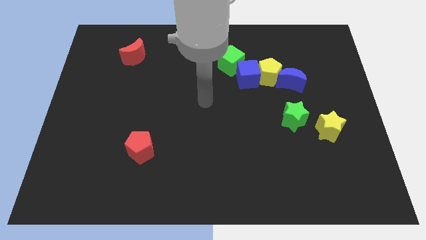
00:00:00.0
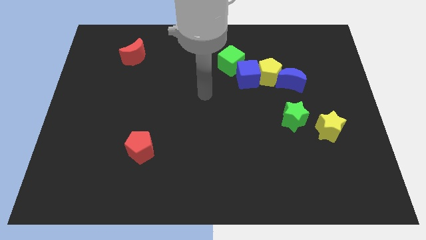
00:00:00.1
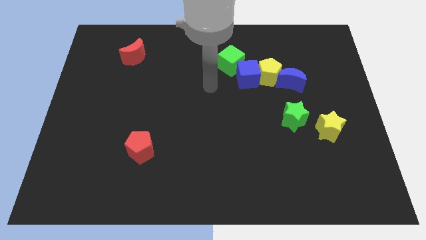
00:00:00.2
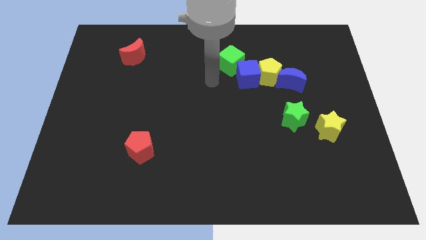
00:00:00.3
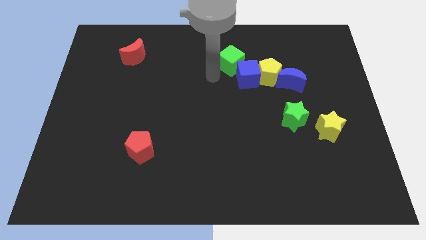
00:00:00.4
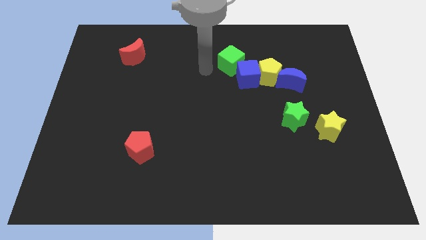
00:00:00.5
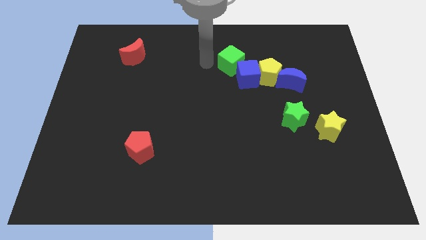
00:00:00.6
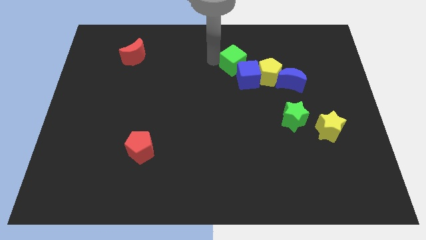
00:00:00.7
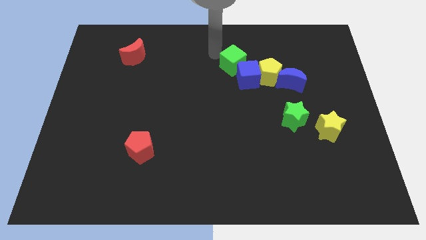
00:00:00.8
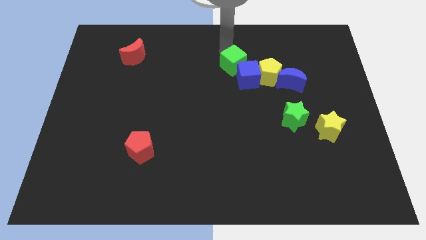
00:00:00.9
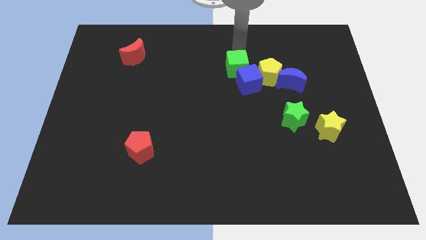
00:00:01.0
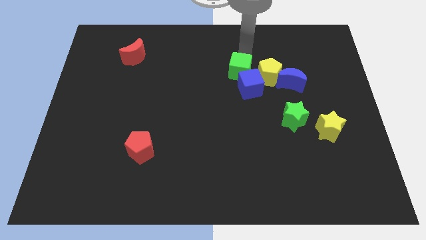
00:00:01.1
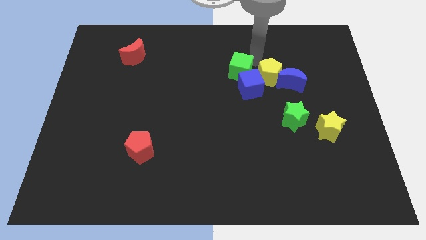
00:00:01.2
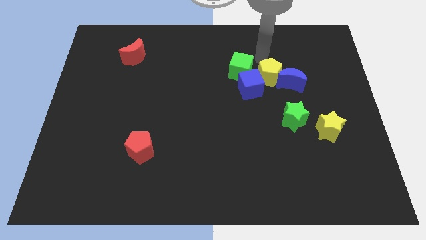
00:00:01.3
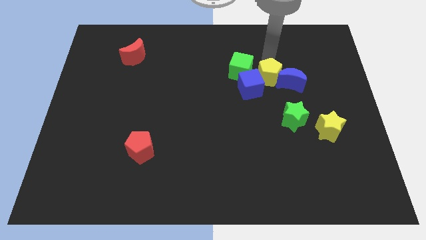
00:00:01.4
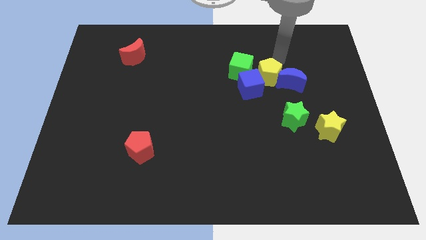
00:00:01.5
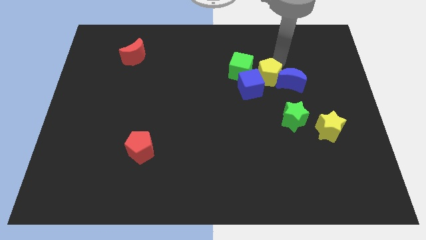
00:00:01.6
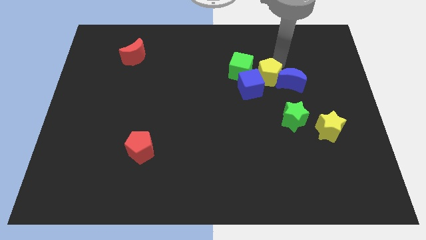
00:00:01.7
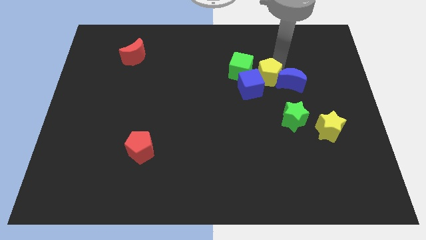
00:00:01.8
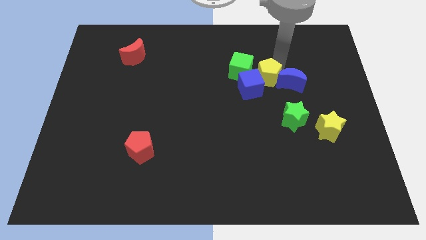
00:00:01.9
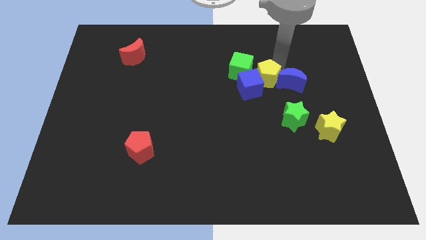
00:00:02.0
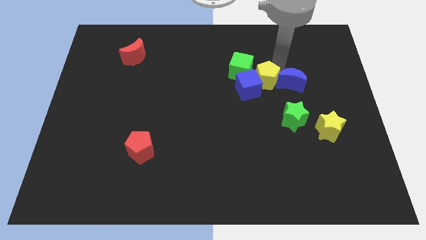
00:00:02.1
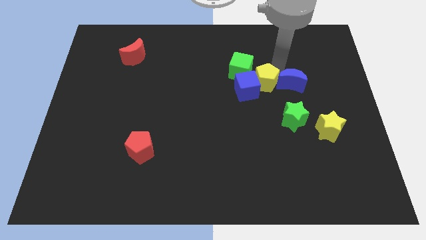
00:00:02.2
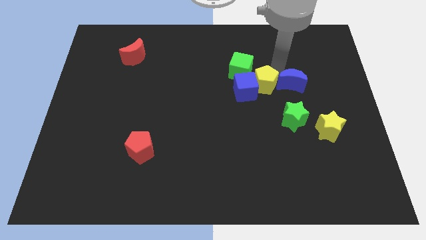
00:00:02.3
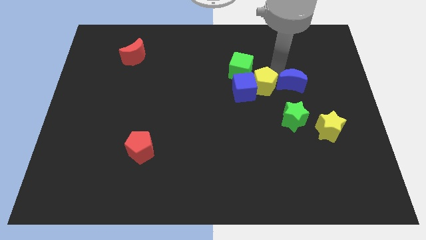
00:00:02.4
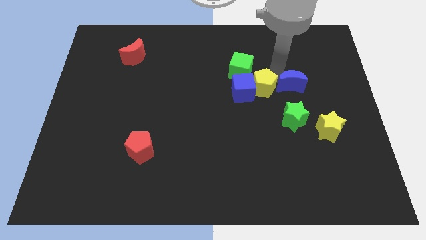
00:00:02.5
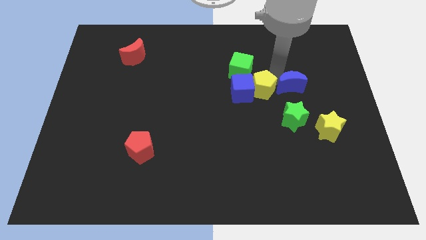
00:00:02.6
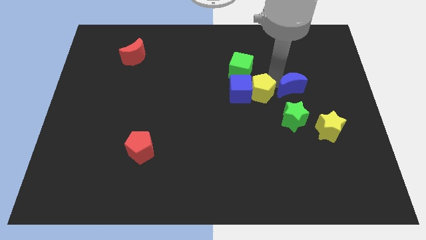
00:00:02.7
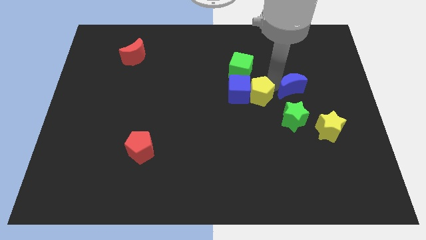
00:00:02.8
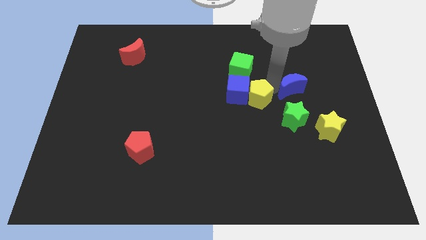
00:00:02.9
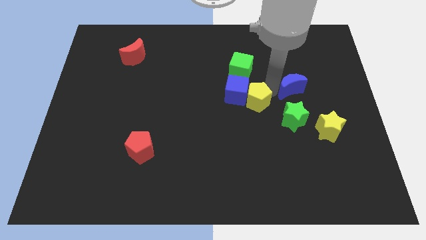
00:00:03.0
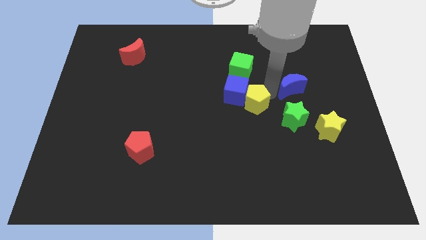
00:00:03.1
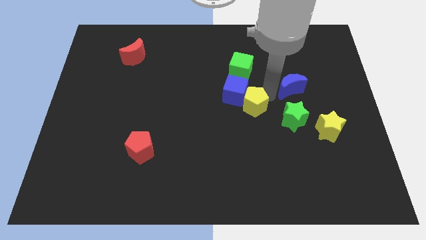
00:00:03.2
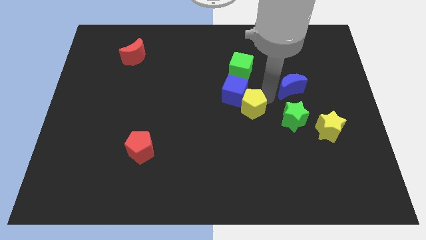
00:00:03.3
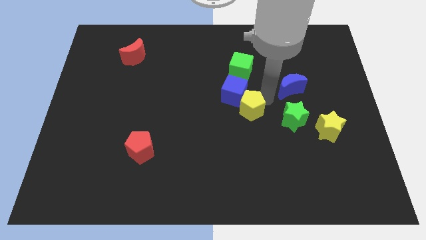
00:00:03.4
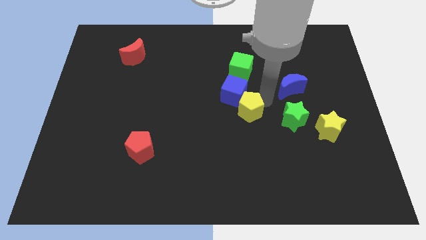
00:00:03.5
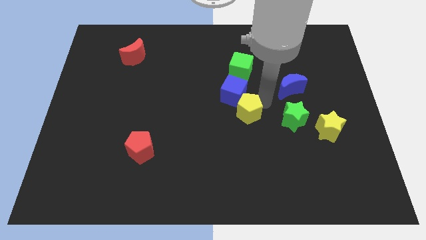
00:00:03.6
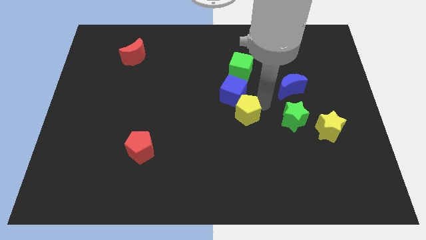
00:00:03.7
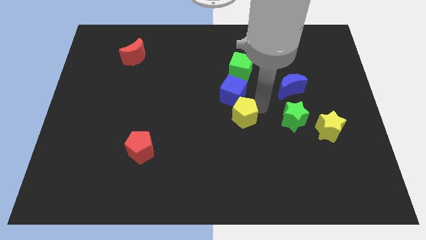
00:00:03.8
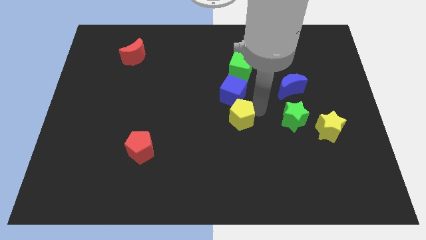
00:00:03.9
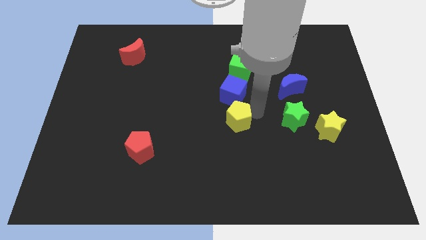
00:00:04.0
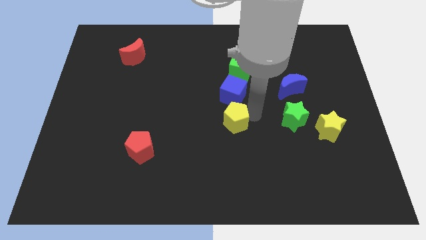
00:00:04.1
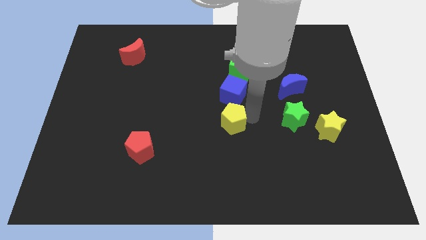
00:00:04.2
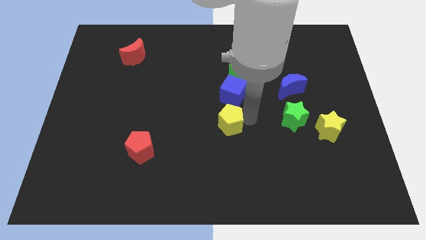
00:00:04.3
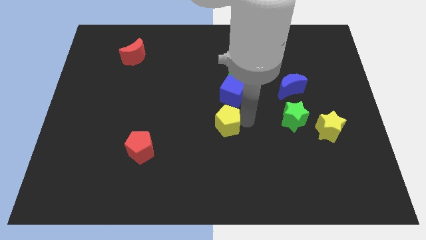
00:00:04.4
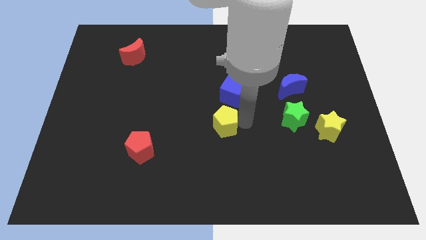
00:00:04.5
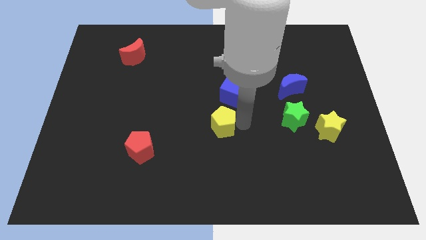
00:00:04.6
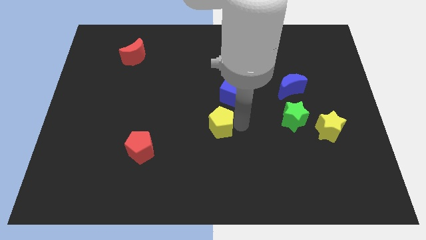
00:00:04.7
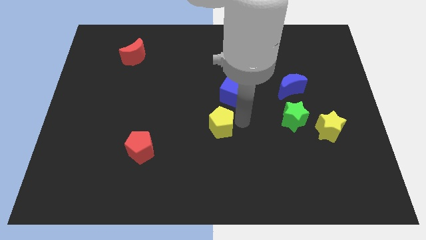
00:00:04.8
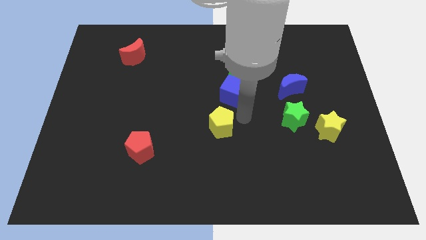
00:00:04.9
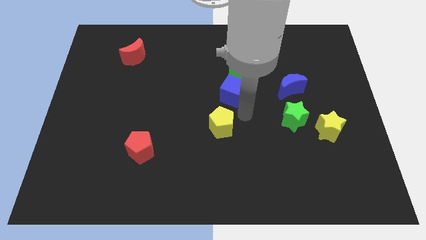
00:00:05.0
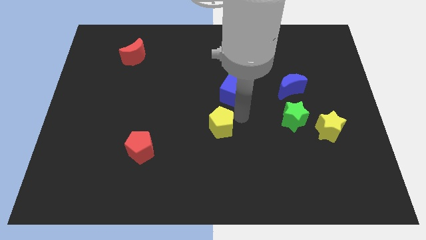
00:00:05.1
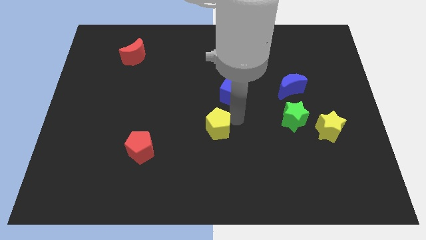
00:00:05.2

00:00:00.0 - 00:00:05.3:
push the yellow pentagon downwards and then to the left

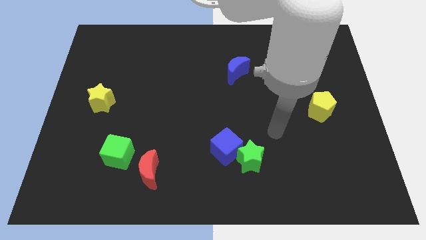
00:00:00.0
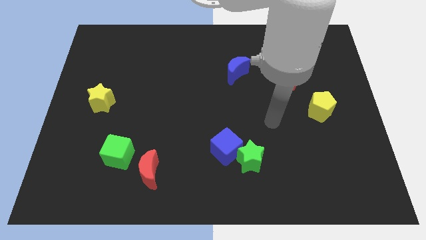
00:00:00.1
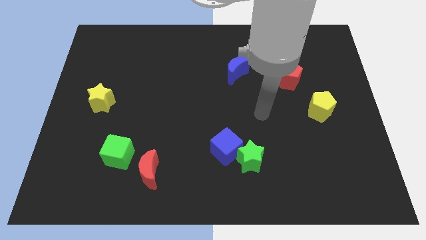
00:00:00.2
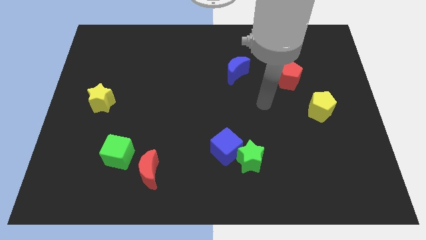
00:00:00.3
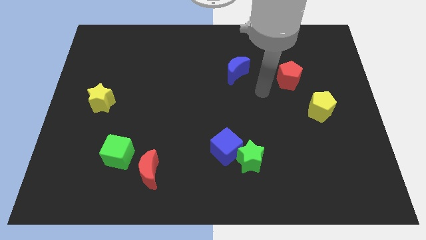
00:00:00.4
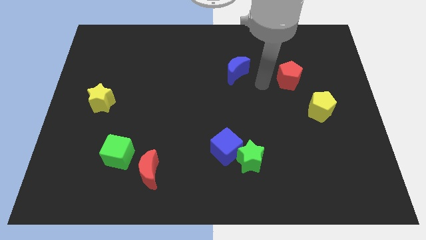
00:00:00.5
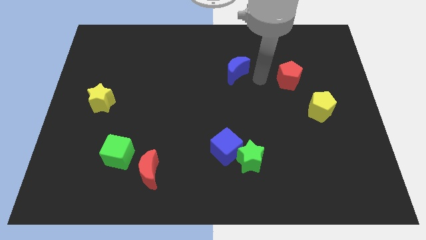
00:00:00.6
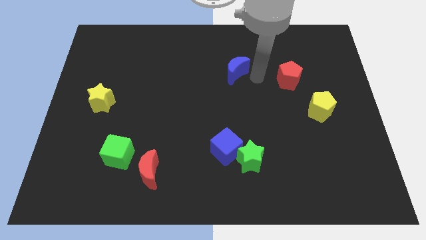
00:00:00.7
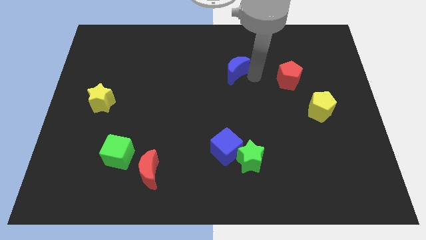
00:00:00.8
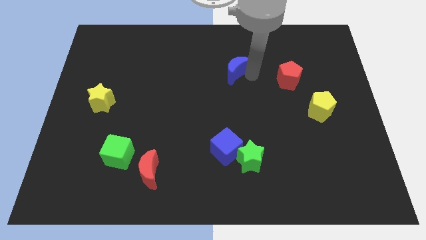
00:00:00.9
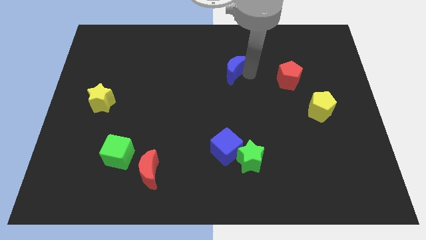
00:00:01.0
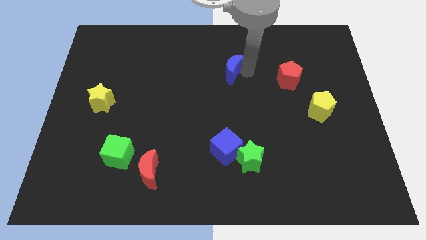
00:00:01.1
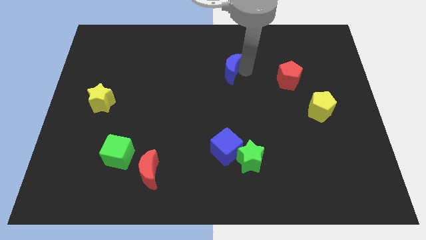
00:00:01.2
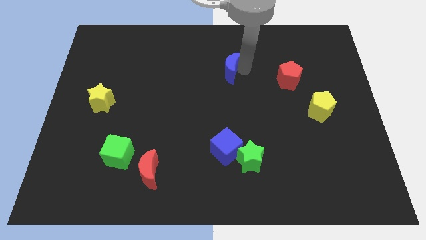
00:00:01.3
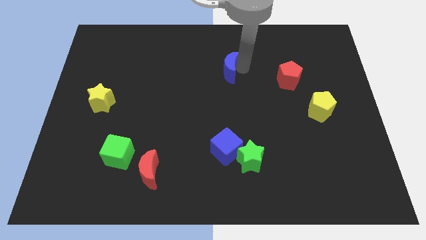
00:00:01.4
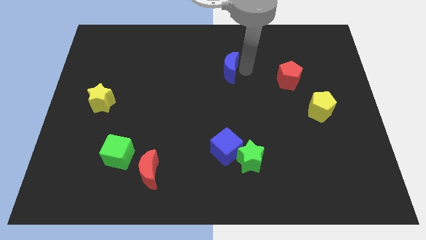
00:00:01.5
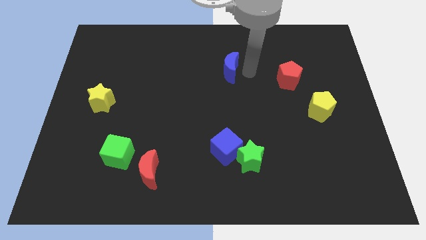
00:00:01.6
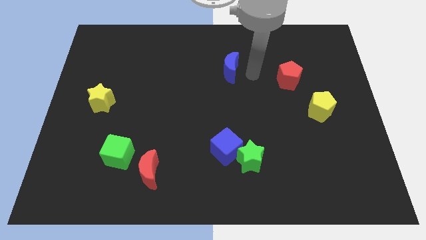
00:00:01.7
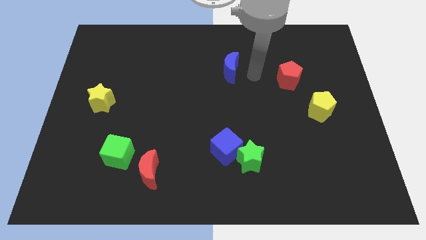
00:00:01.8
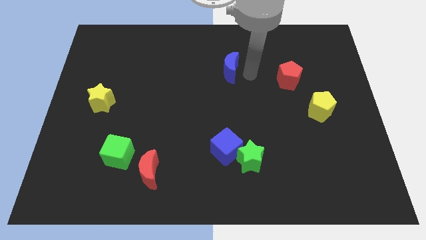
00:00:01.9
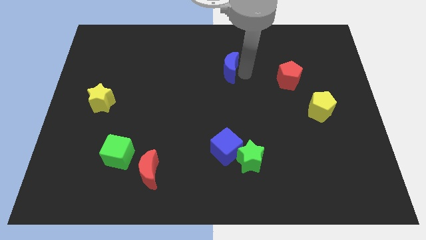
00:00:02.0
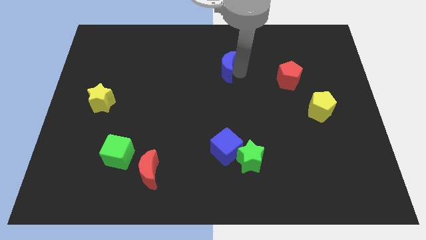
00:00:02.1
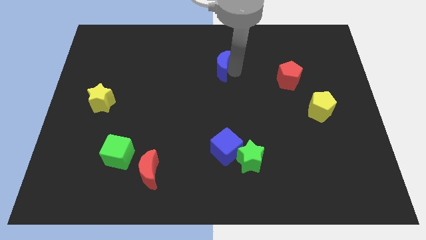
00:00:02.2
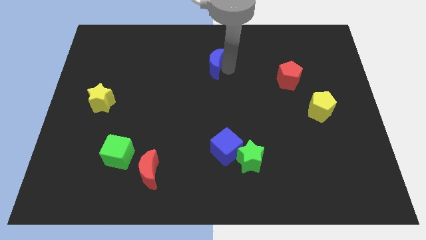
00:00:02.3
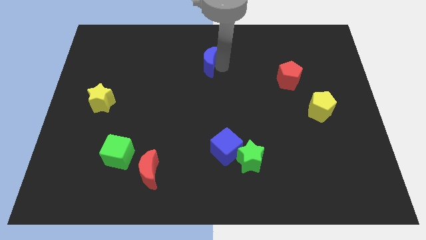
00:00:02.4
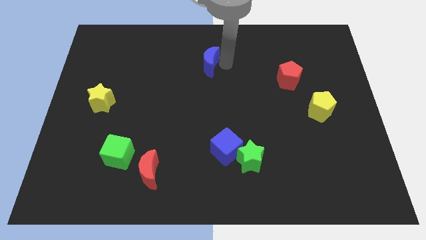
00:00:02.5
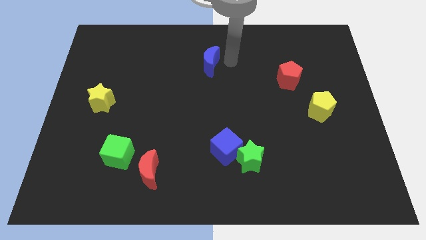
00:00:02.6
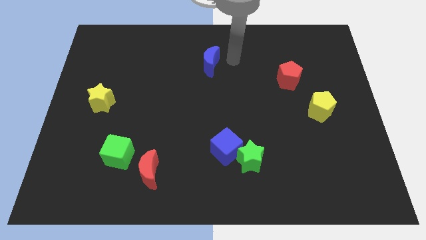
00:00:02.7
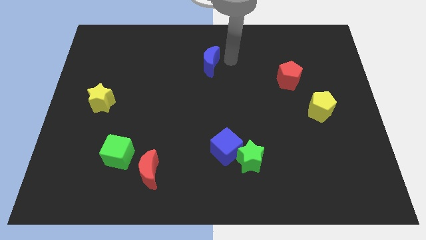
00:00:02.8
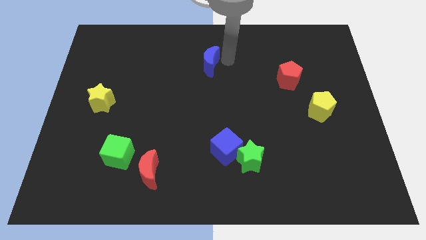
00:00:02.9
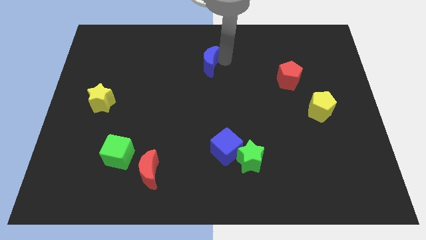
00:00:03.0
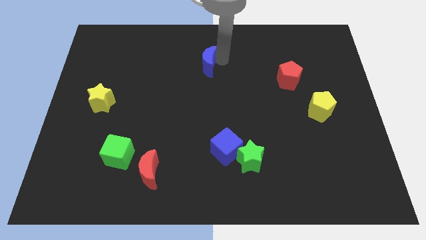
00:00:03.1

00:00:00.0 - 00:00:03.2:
move the blue moon slightly left
